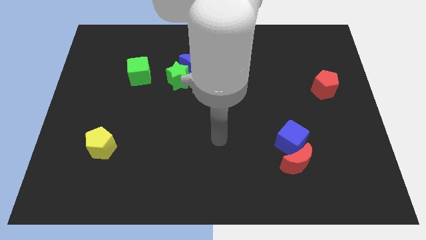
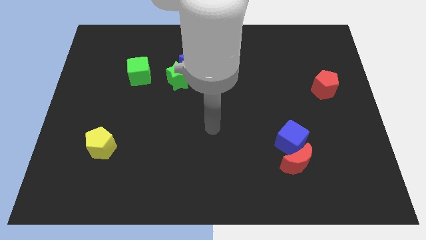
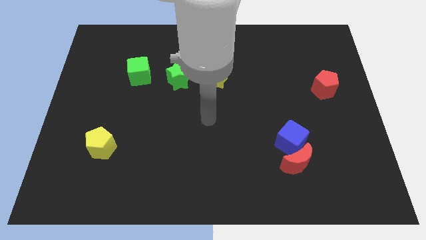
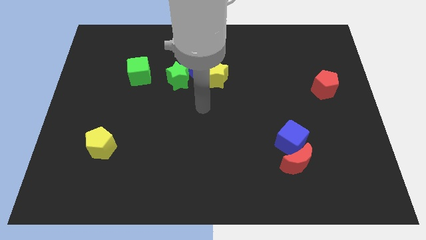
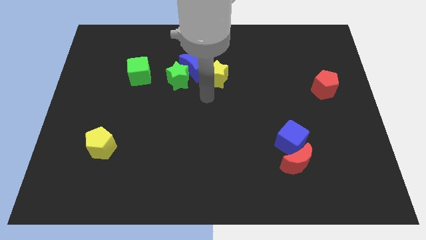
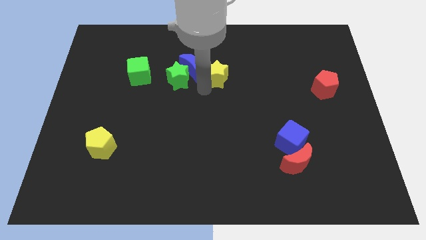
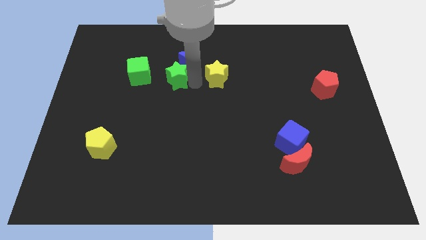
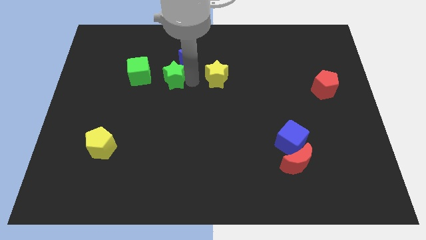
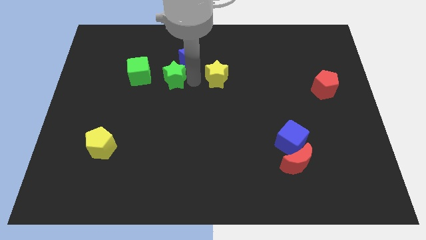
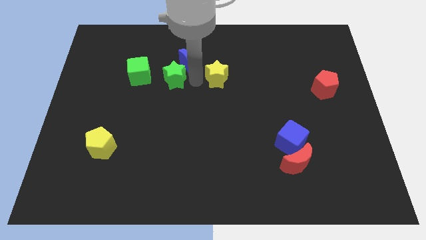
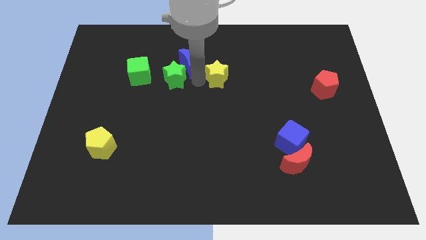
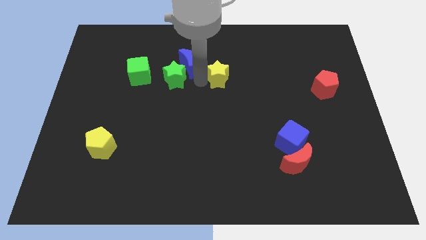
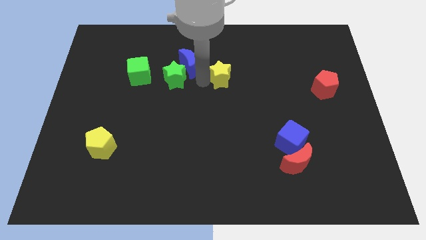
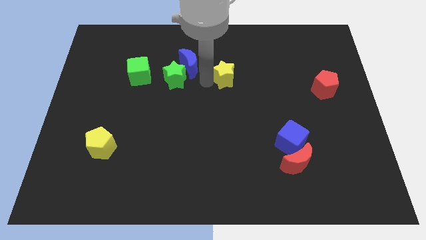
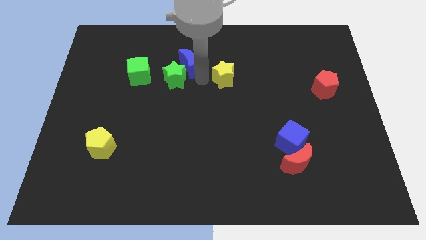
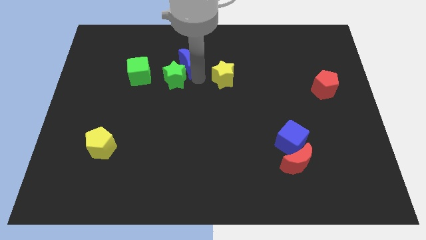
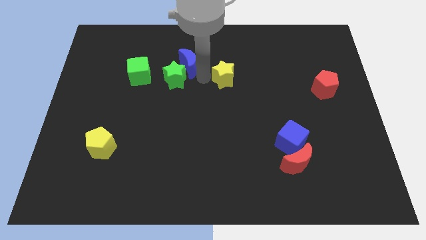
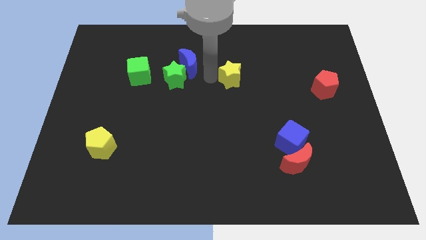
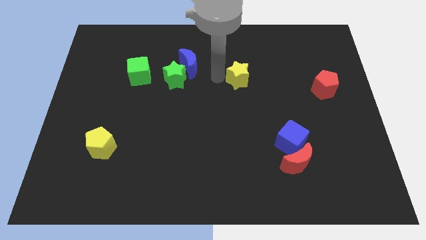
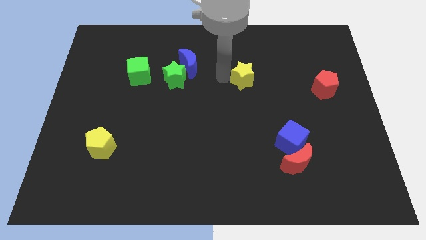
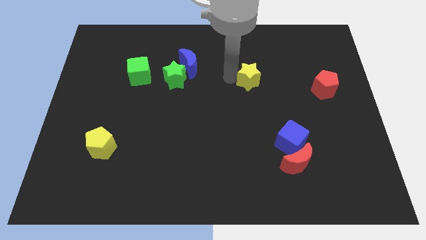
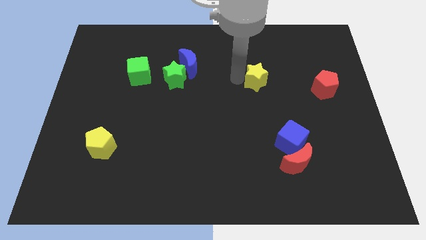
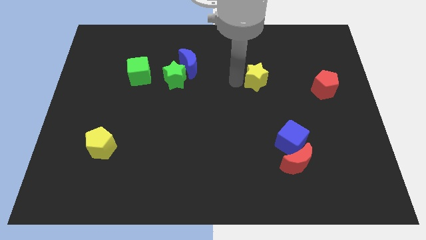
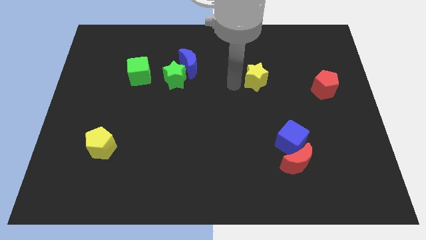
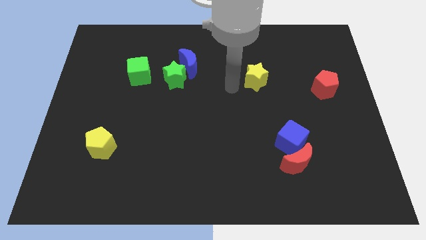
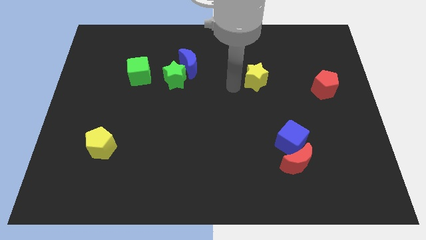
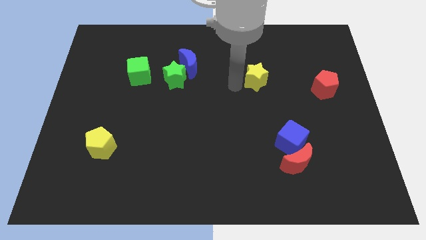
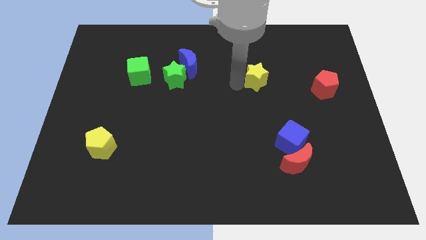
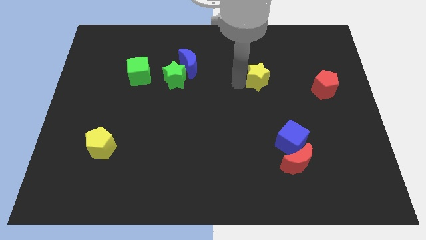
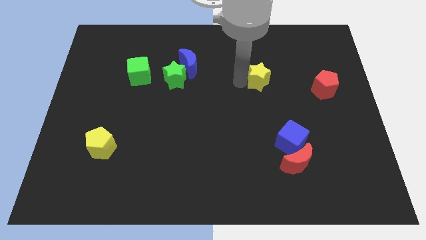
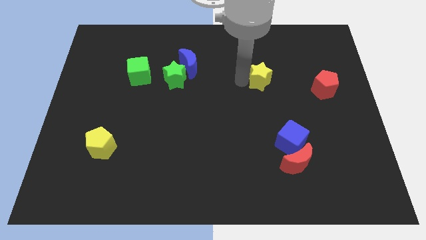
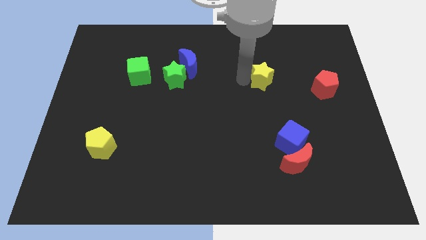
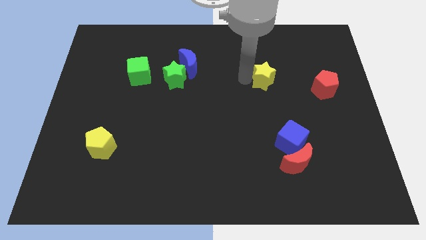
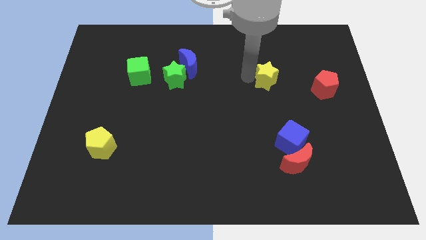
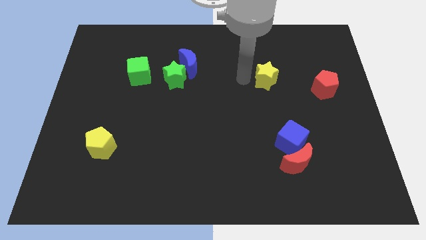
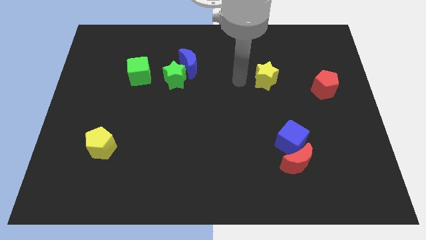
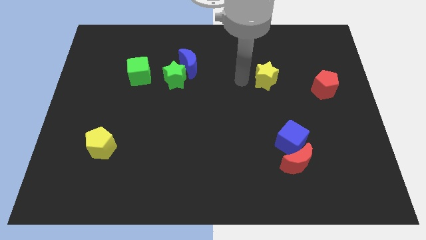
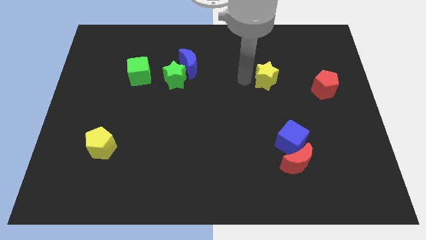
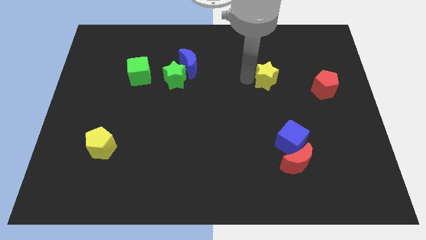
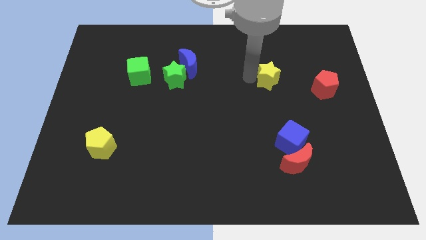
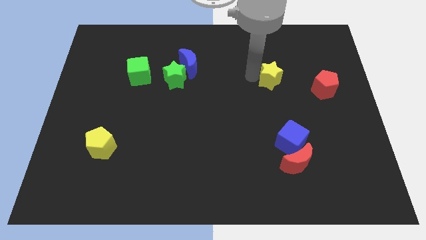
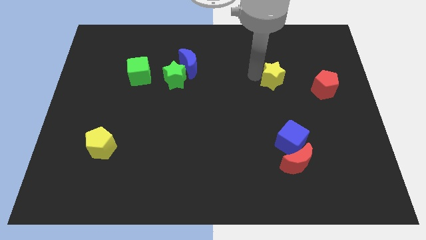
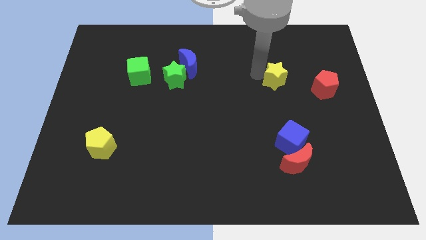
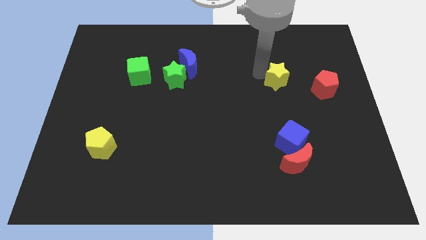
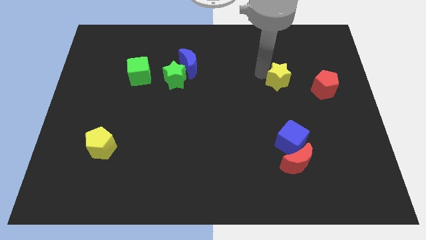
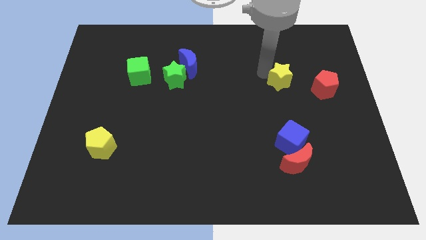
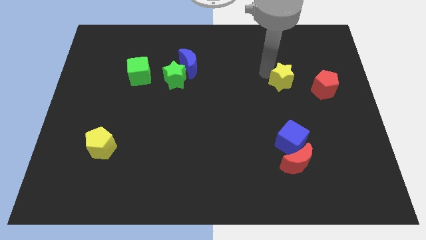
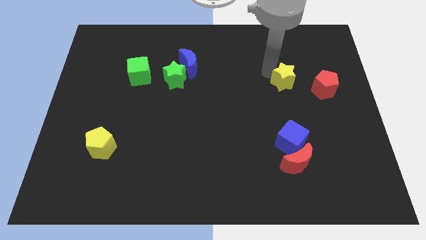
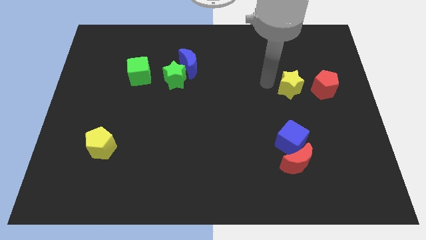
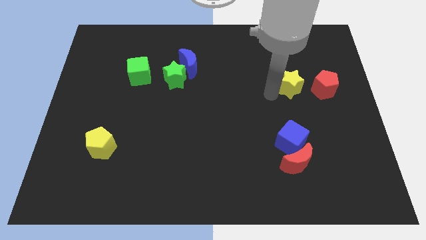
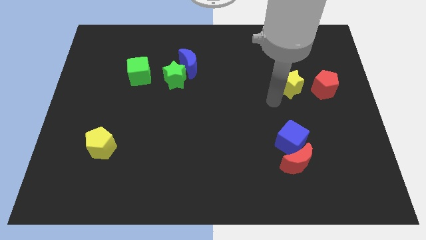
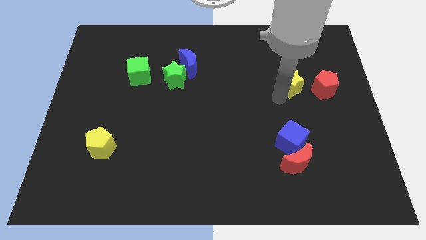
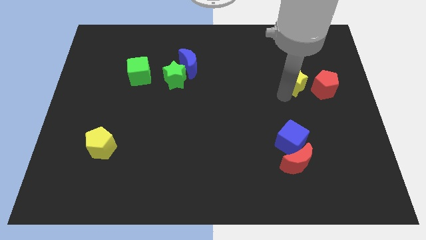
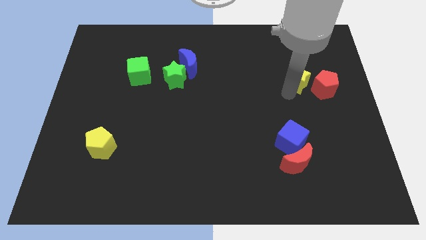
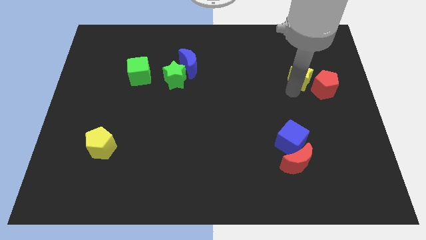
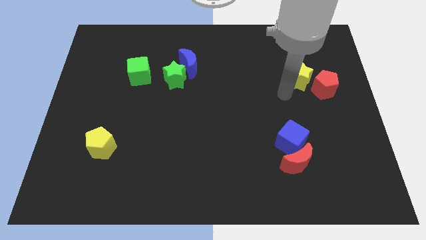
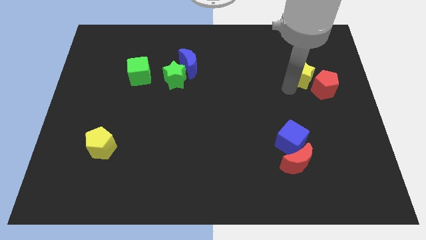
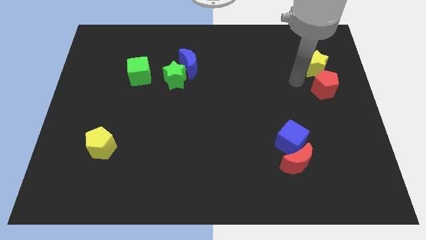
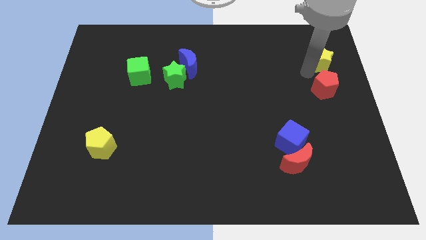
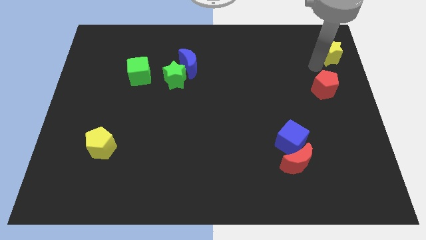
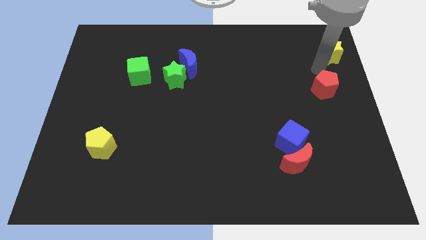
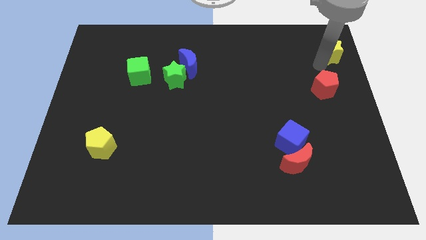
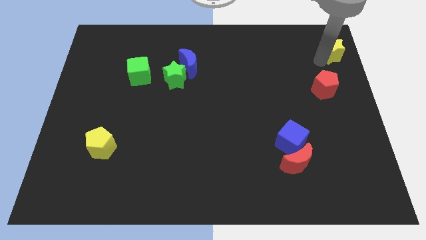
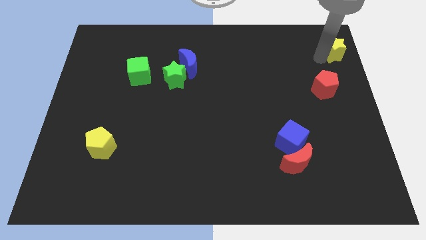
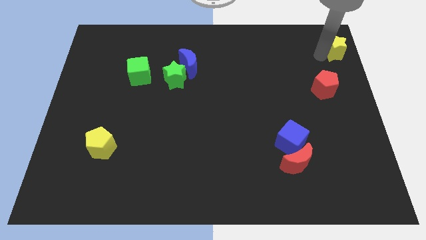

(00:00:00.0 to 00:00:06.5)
push the yellow star to the top right of the board
